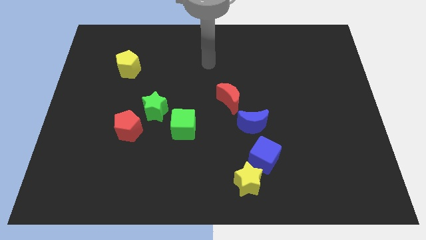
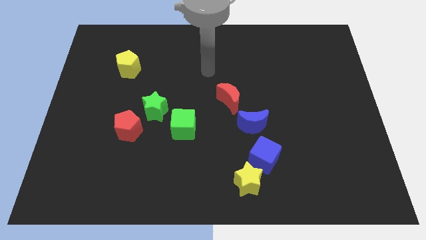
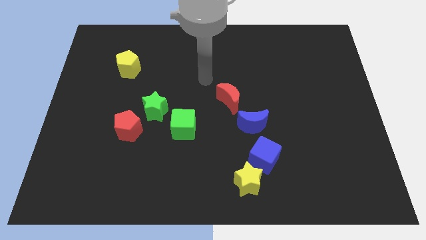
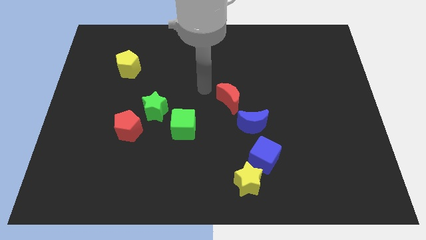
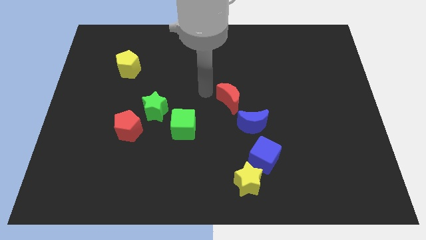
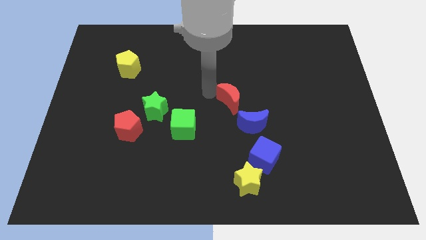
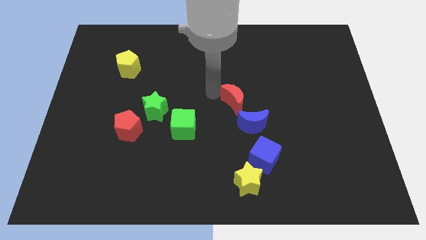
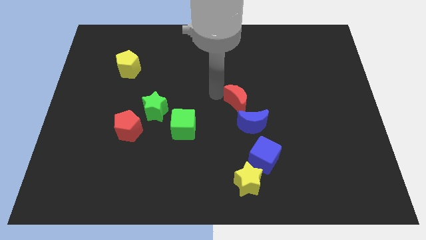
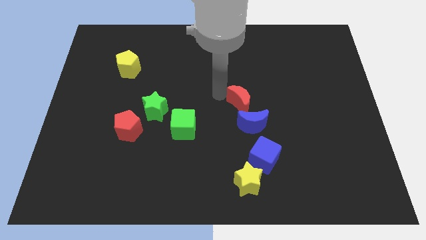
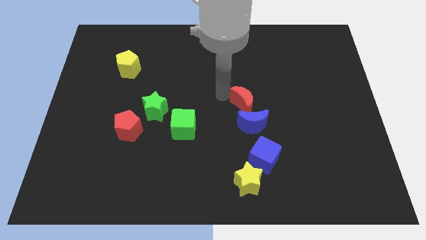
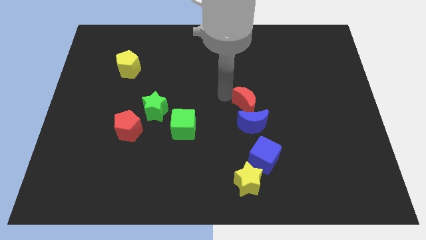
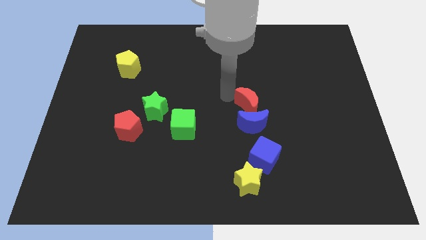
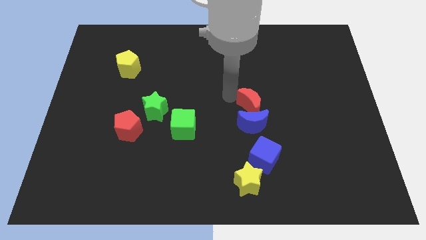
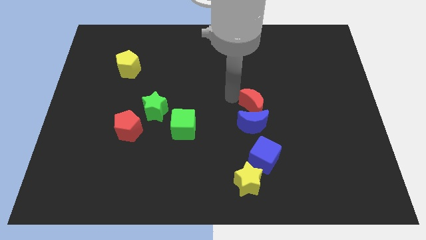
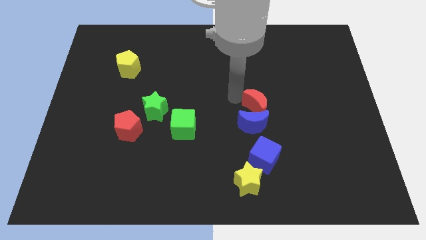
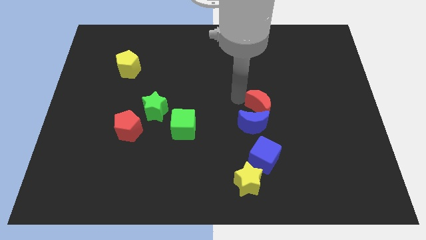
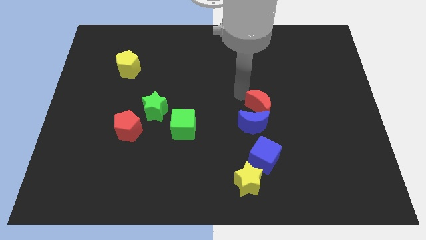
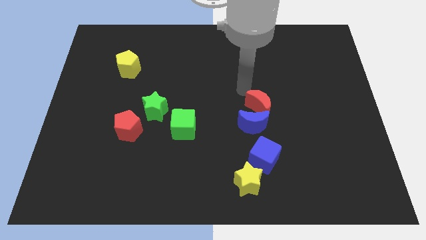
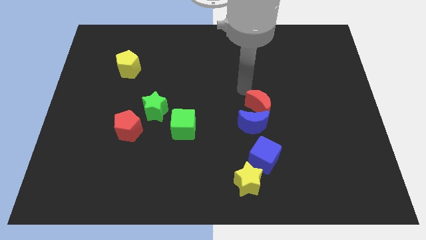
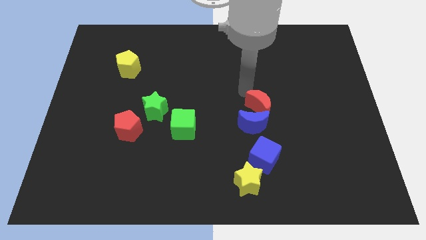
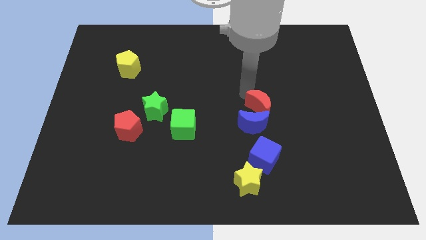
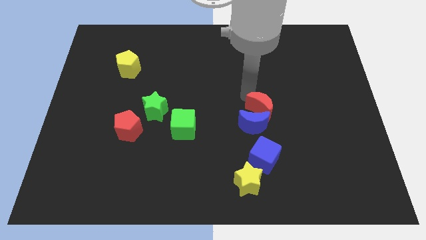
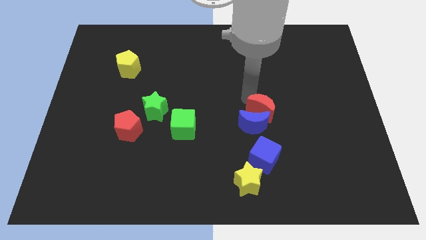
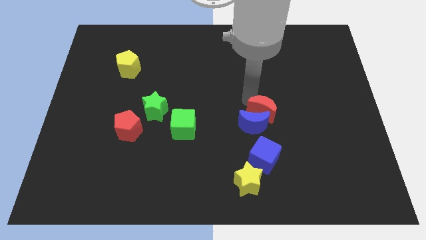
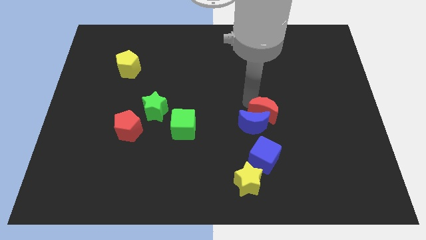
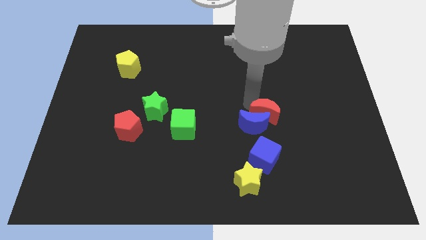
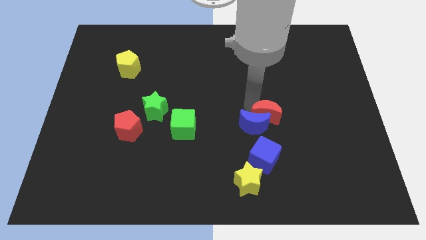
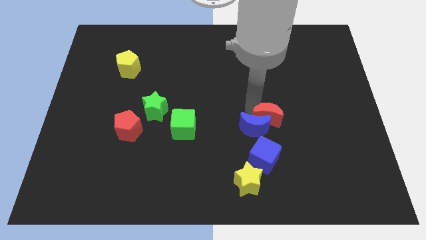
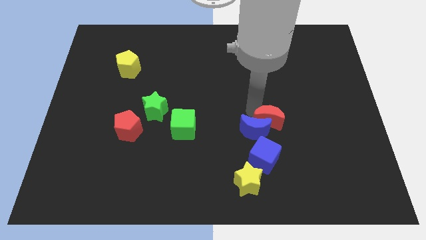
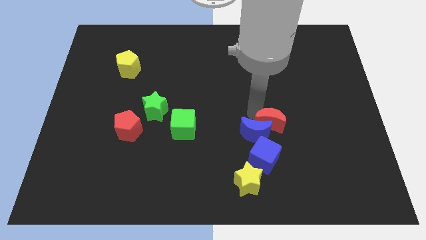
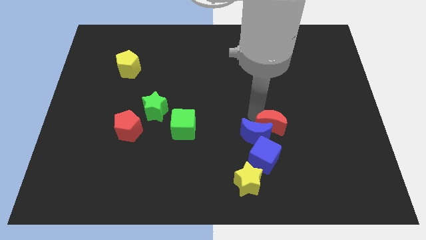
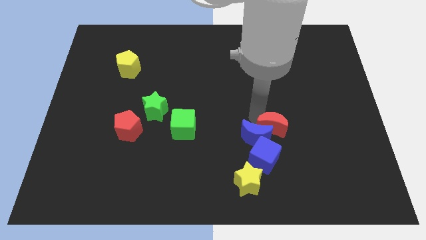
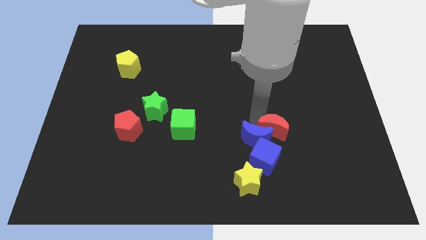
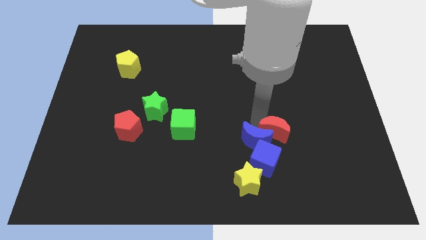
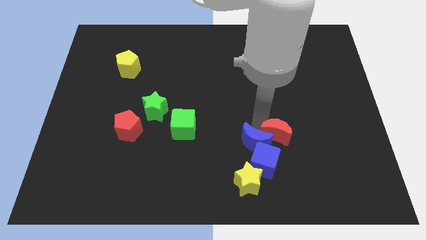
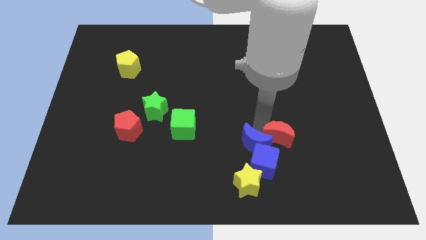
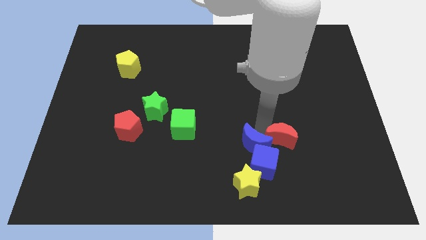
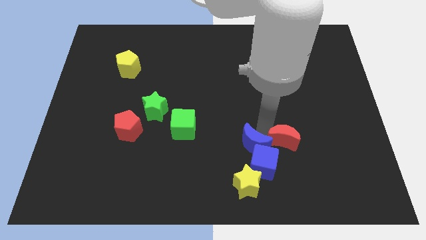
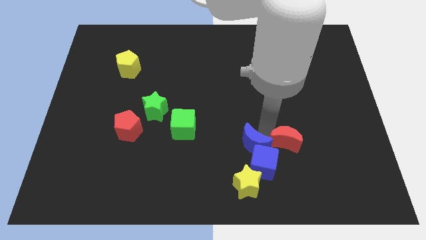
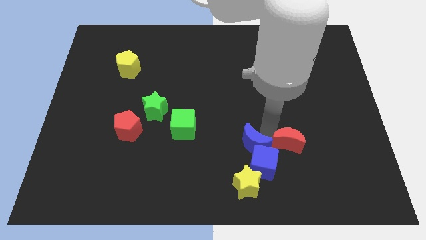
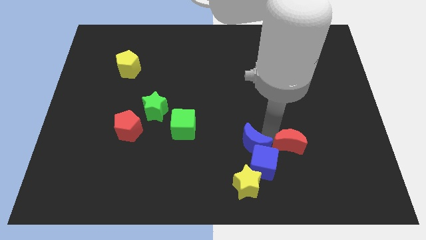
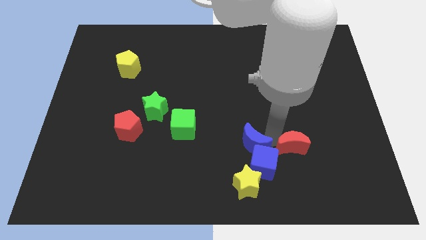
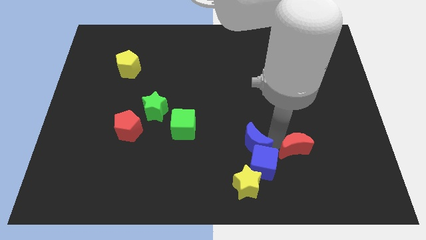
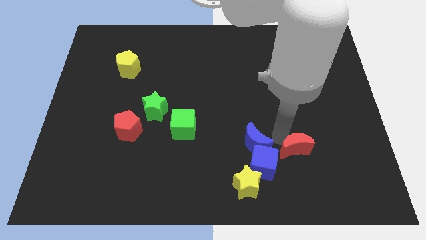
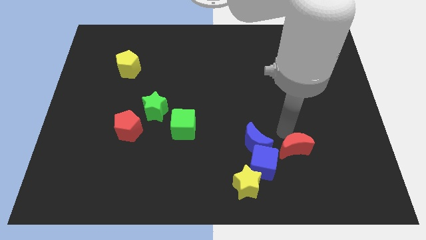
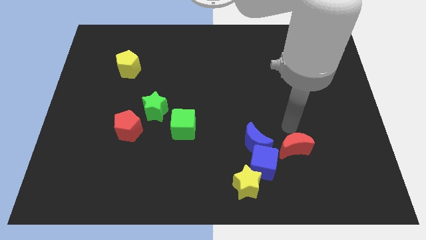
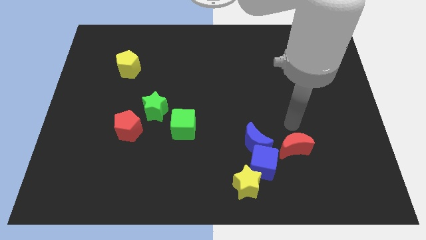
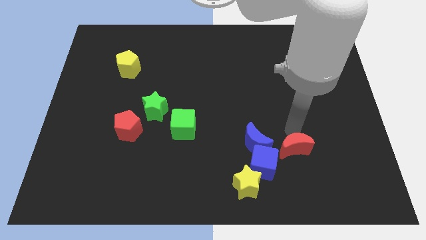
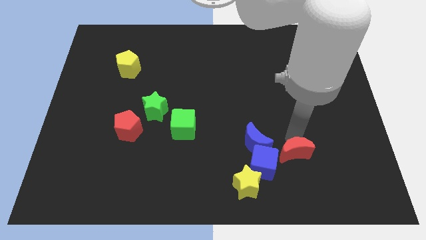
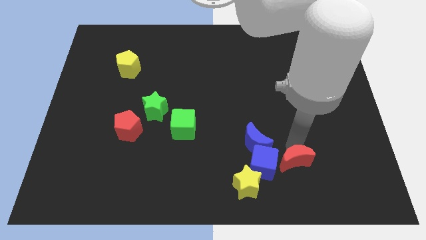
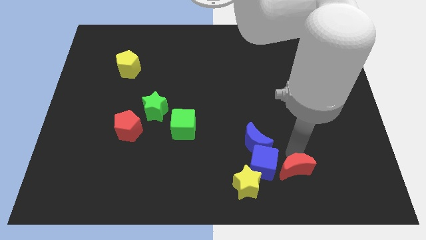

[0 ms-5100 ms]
slide the red moon to the right side of the yellow star

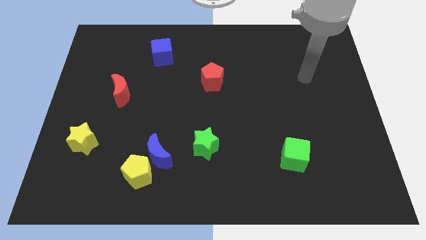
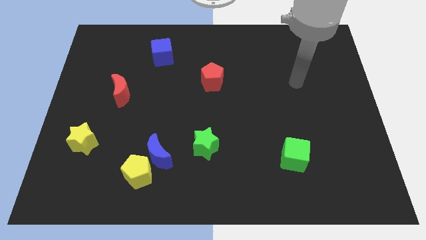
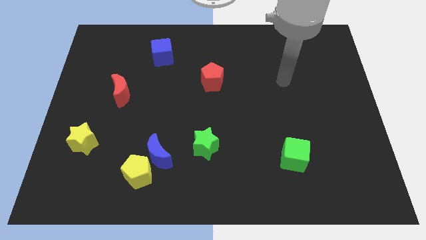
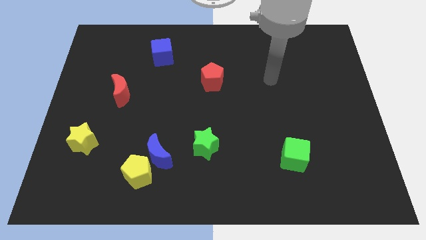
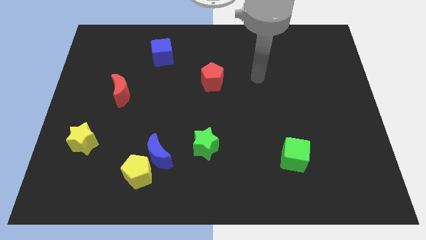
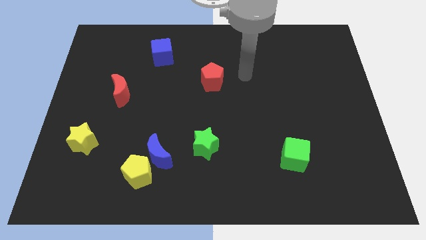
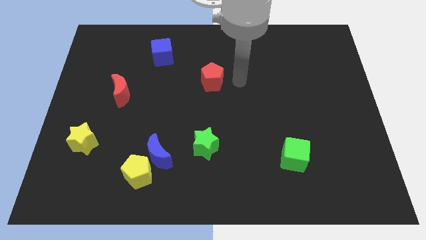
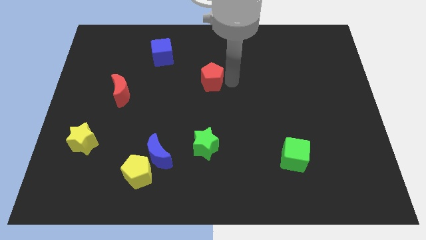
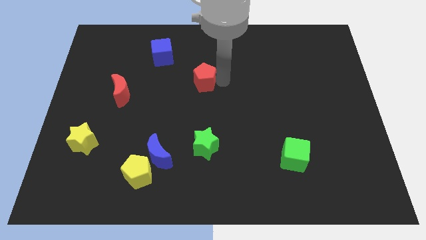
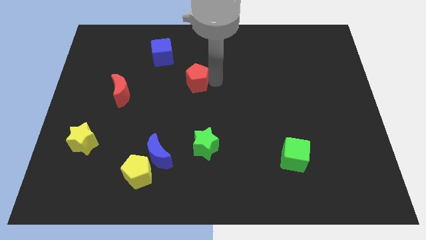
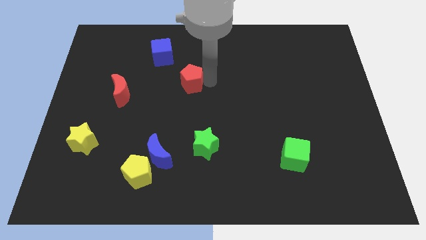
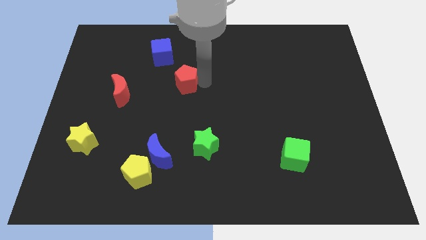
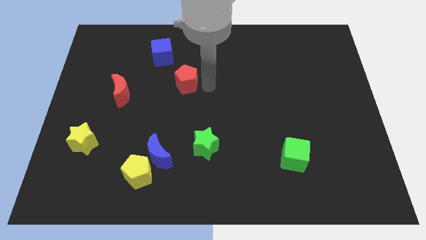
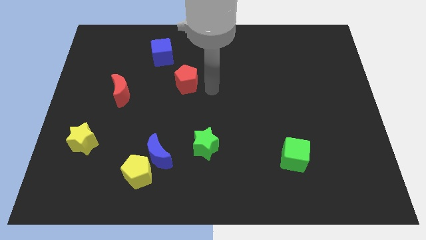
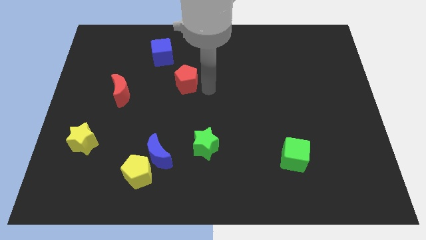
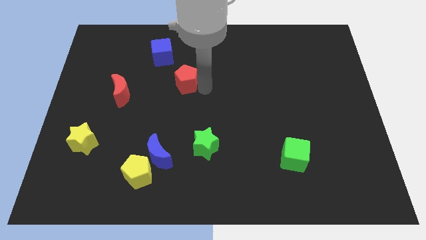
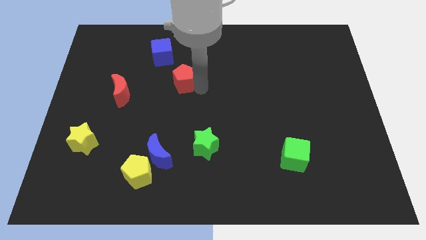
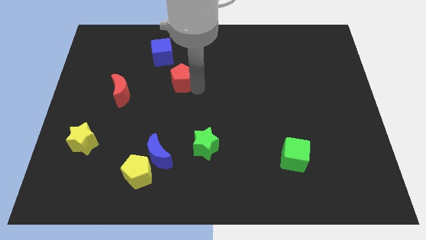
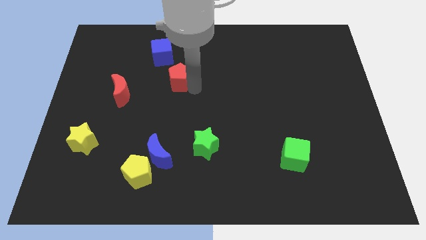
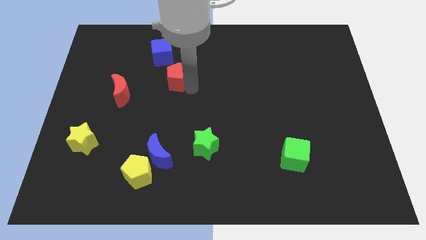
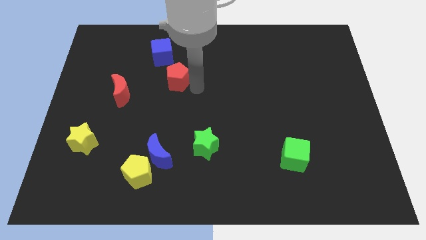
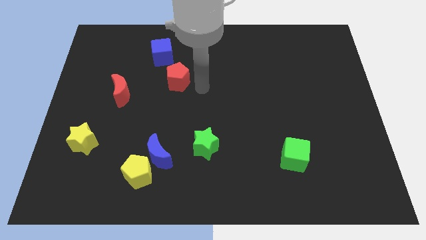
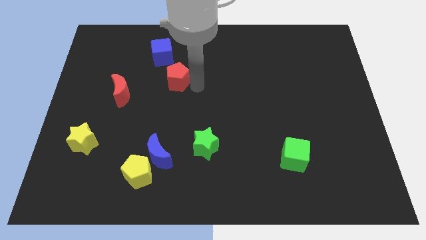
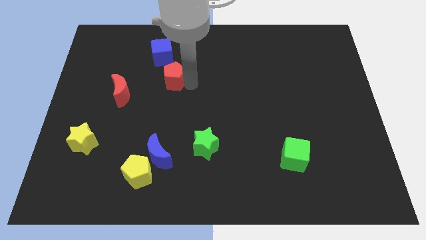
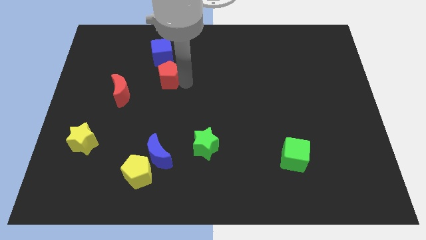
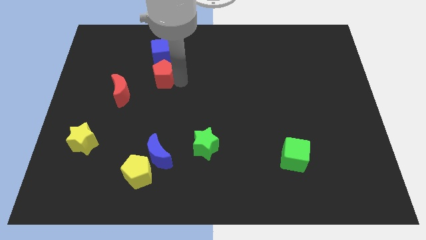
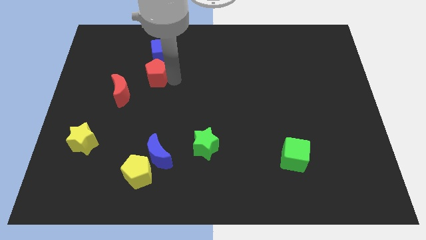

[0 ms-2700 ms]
put the red pentagon to the bottom left side of the blue cube

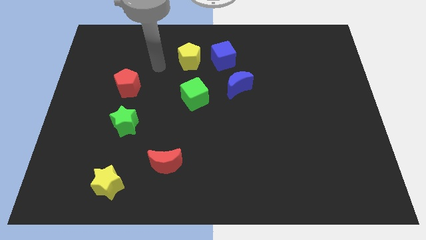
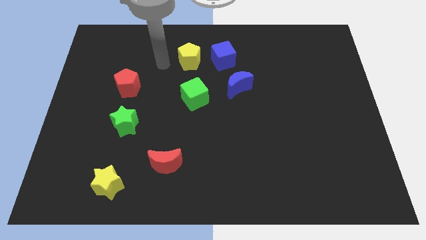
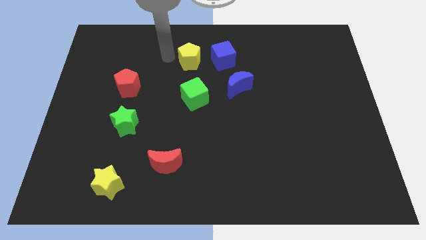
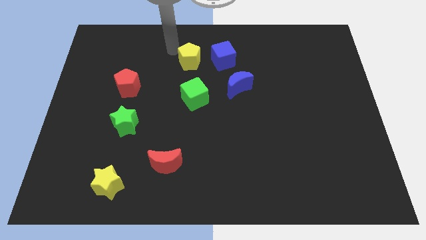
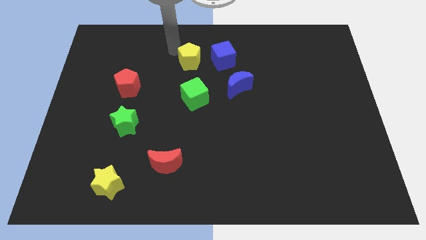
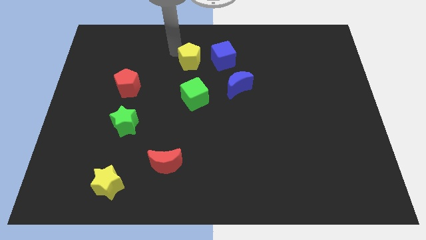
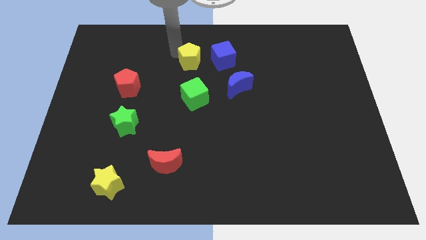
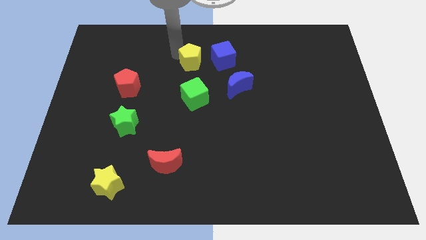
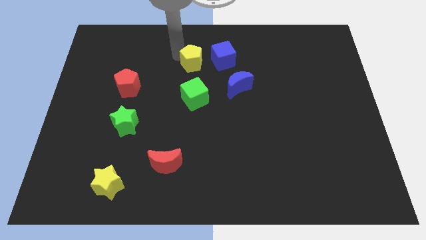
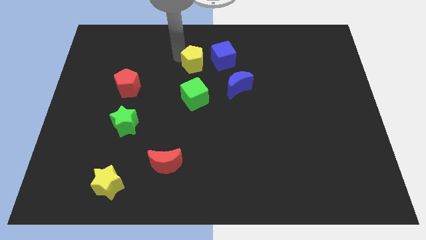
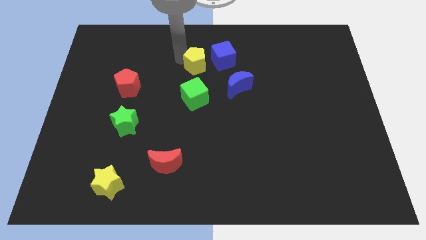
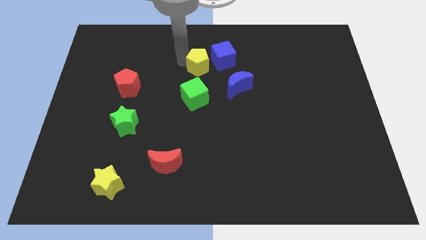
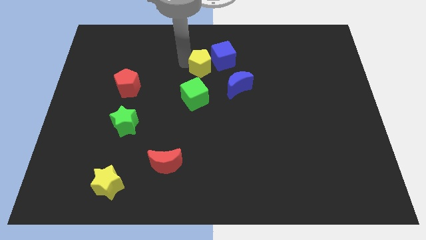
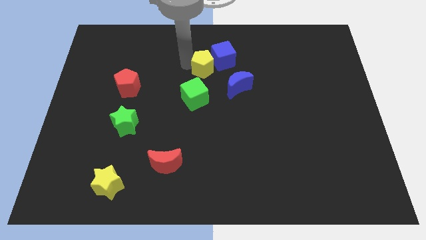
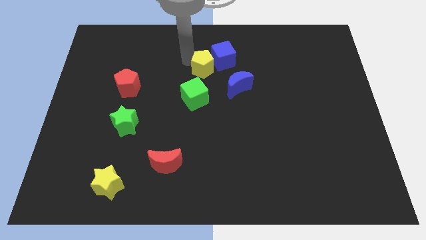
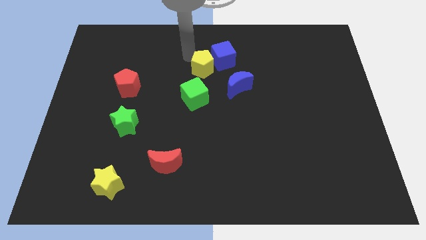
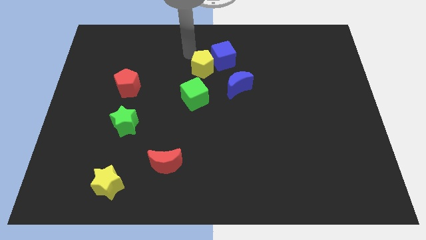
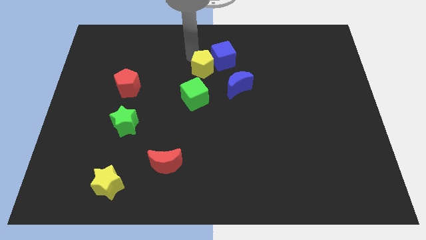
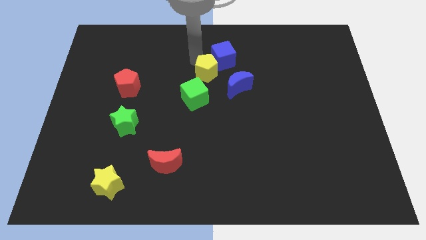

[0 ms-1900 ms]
move the yellow pentagon to the top right side of the green cube
